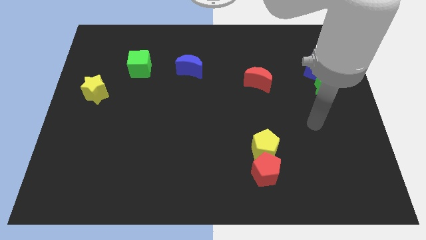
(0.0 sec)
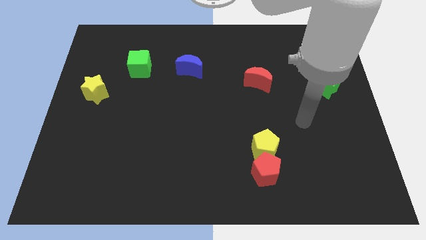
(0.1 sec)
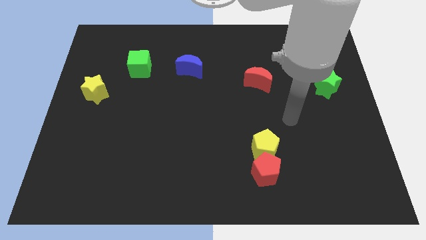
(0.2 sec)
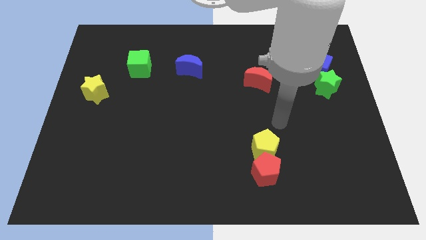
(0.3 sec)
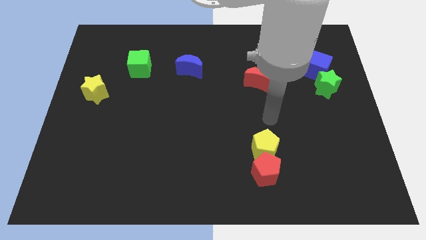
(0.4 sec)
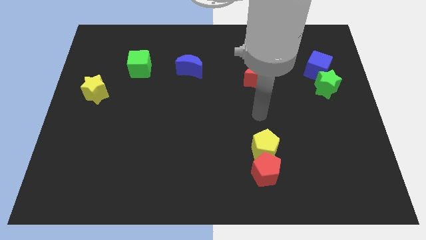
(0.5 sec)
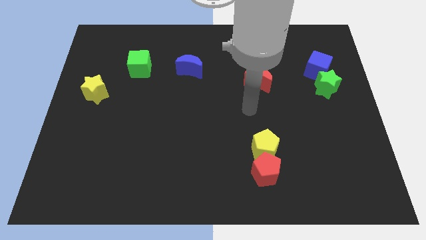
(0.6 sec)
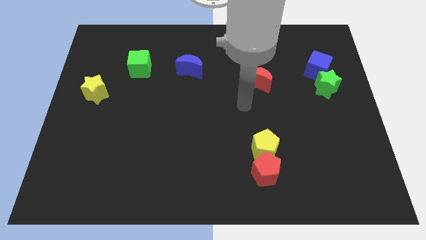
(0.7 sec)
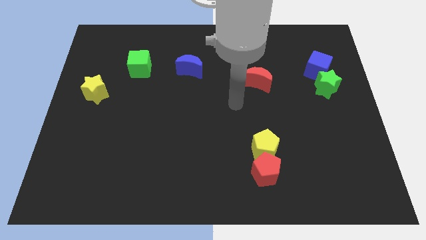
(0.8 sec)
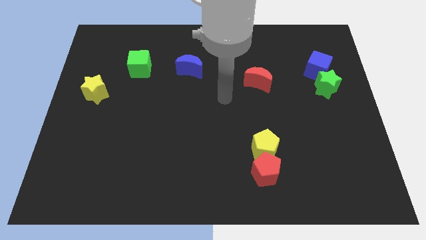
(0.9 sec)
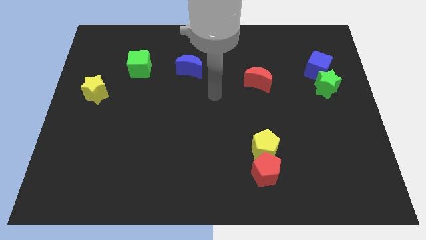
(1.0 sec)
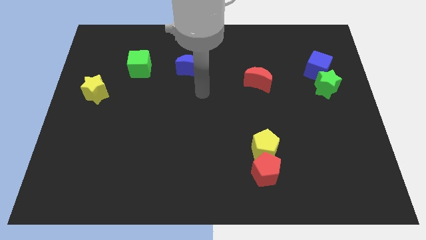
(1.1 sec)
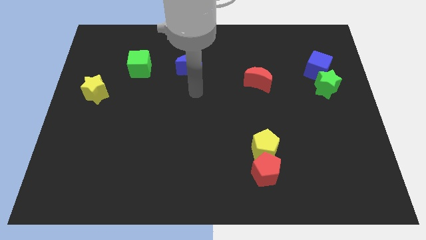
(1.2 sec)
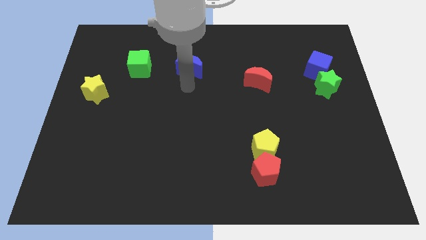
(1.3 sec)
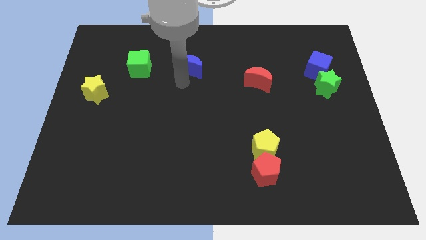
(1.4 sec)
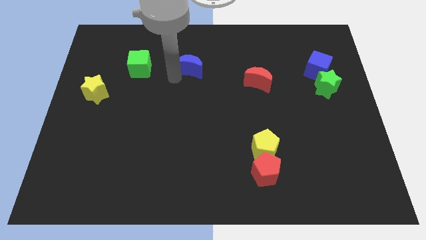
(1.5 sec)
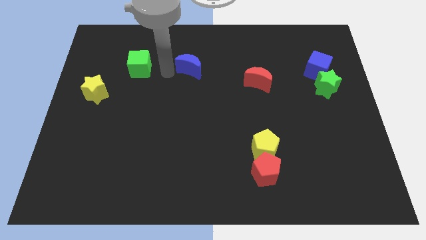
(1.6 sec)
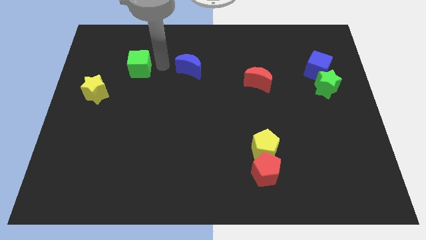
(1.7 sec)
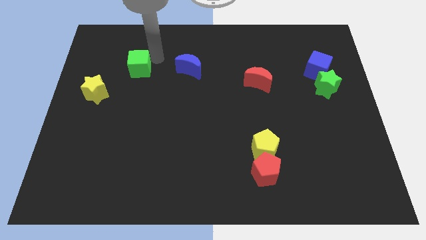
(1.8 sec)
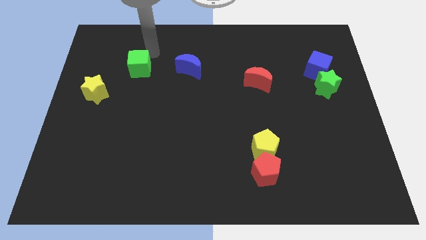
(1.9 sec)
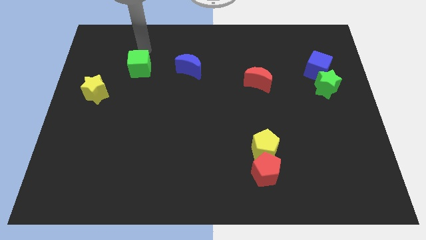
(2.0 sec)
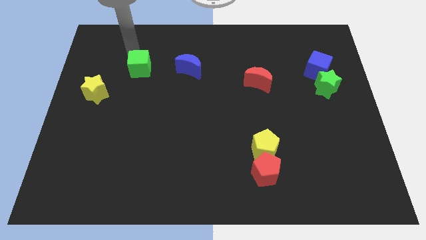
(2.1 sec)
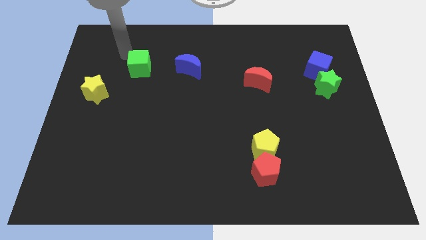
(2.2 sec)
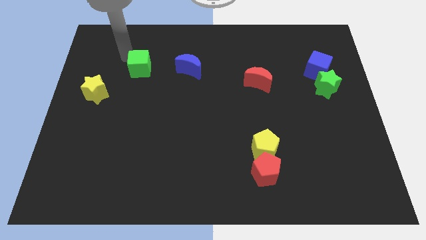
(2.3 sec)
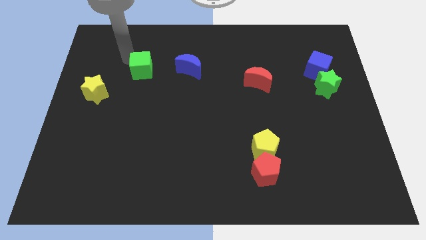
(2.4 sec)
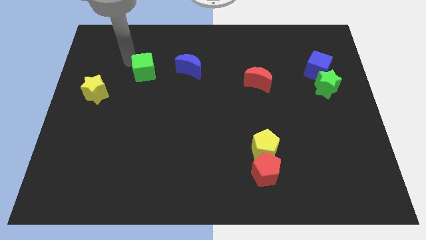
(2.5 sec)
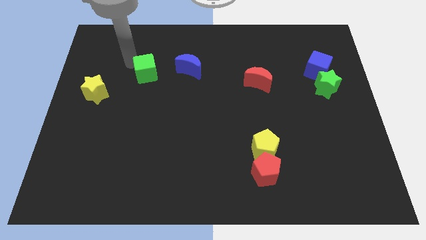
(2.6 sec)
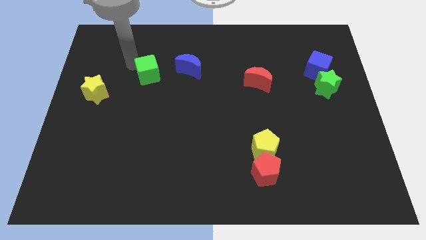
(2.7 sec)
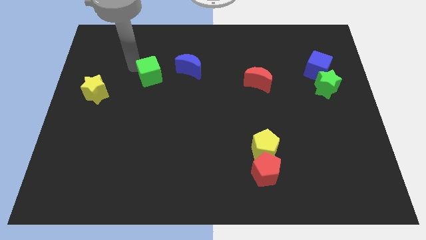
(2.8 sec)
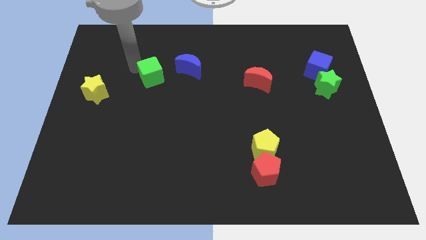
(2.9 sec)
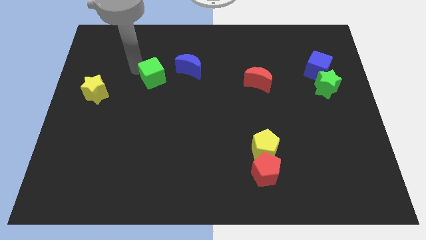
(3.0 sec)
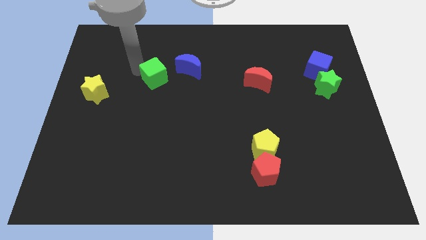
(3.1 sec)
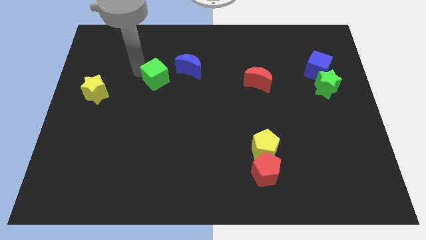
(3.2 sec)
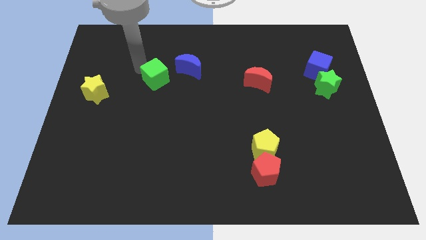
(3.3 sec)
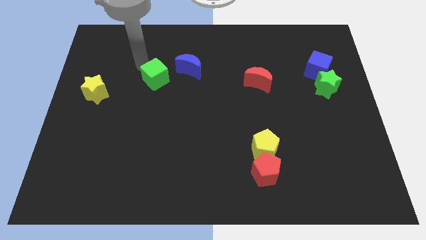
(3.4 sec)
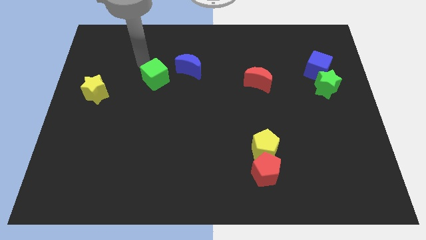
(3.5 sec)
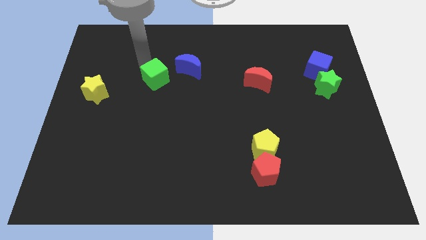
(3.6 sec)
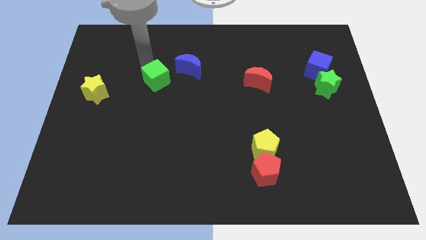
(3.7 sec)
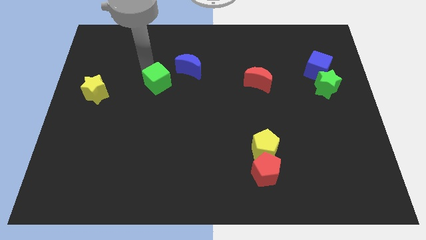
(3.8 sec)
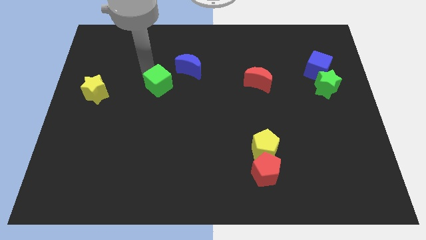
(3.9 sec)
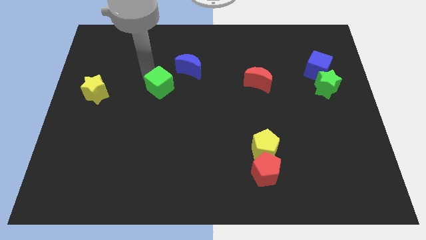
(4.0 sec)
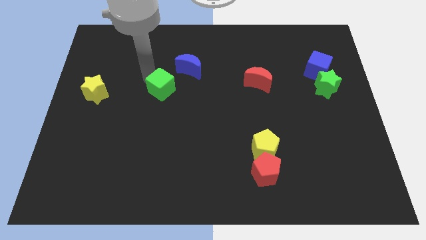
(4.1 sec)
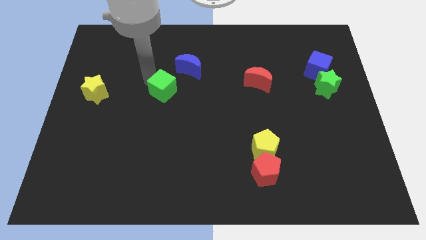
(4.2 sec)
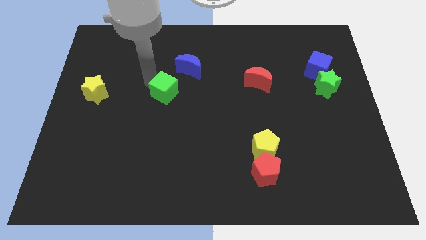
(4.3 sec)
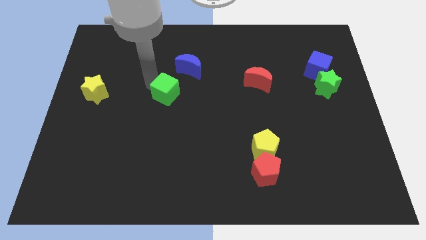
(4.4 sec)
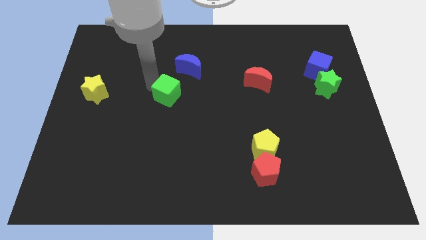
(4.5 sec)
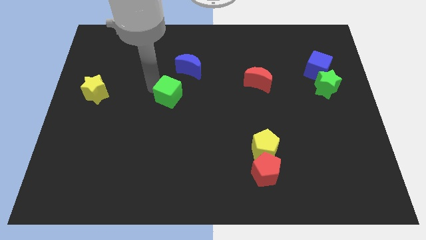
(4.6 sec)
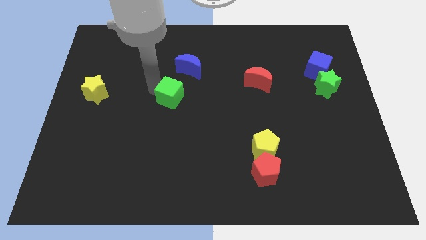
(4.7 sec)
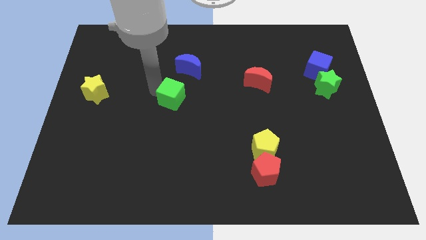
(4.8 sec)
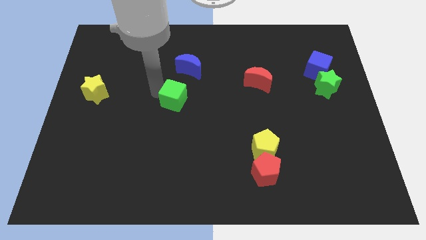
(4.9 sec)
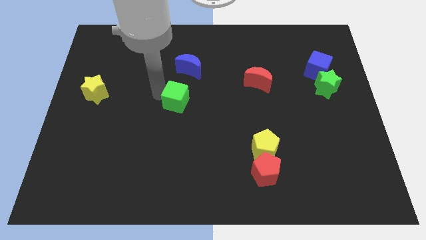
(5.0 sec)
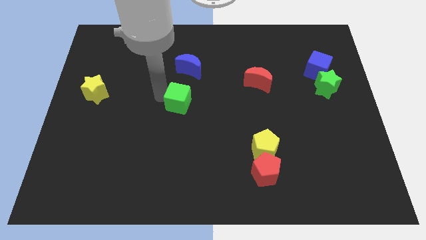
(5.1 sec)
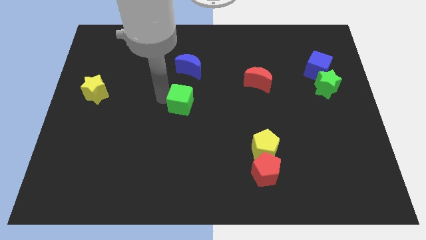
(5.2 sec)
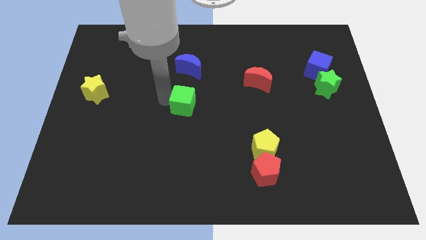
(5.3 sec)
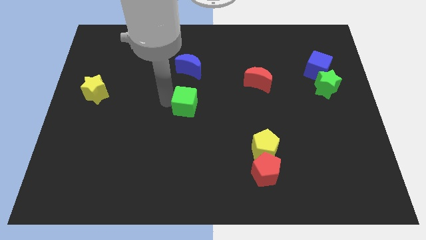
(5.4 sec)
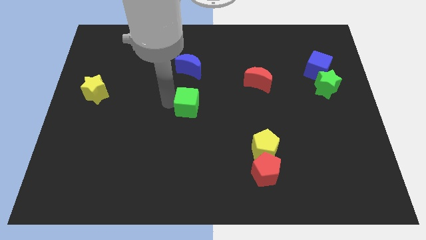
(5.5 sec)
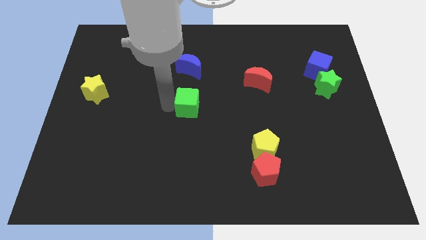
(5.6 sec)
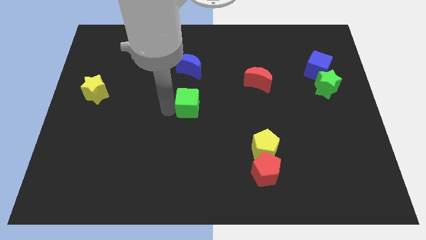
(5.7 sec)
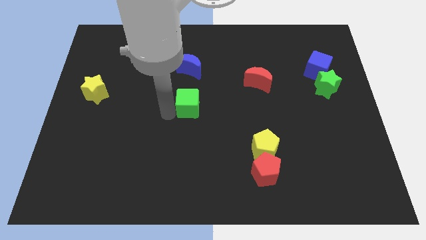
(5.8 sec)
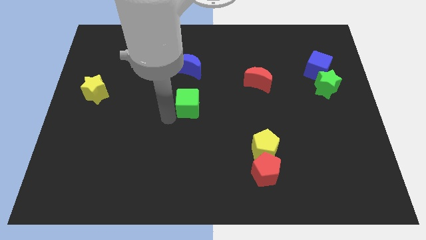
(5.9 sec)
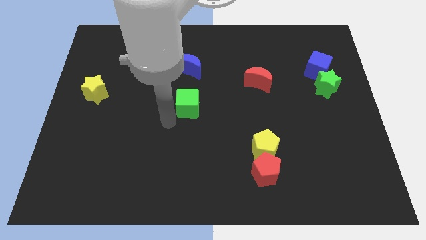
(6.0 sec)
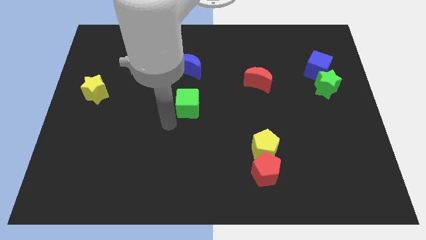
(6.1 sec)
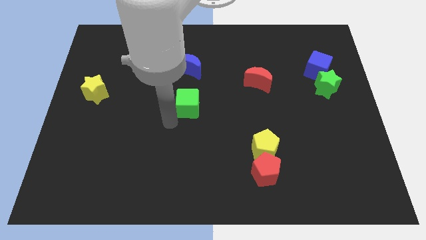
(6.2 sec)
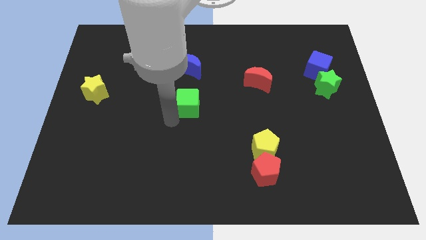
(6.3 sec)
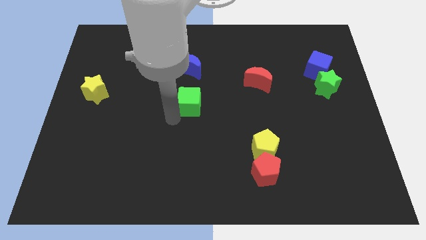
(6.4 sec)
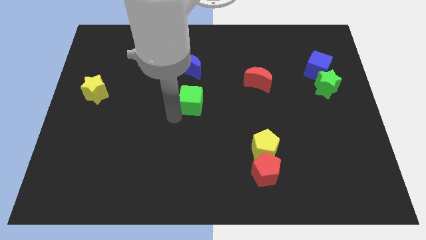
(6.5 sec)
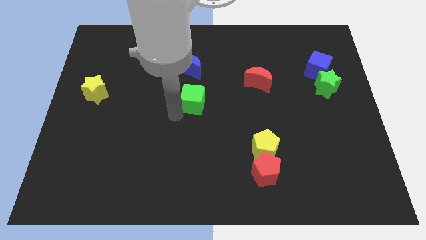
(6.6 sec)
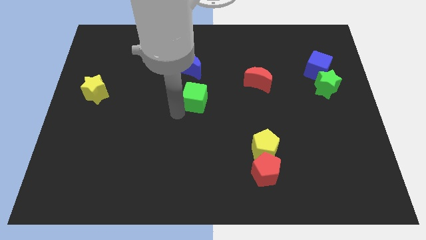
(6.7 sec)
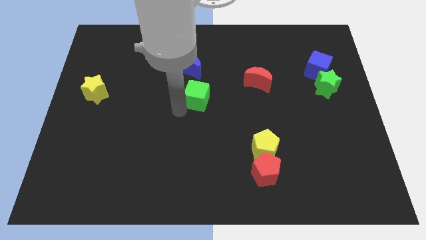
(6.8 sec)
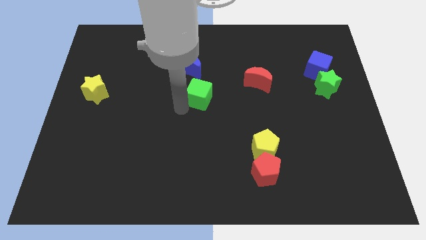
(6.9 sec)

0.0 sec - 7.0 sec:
slide the green cube to the bottom right of the blue moon
